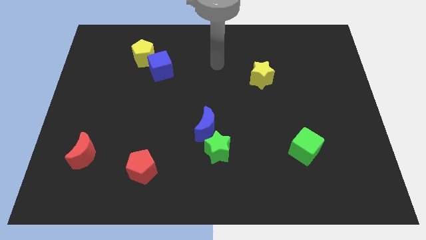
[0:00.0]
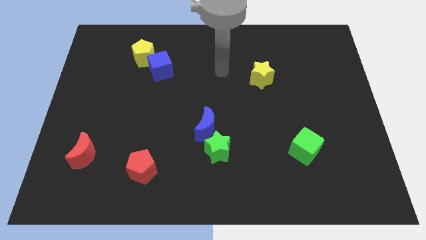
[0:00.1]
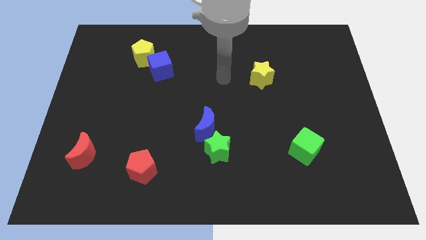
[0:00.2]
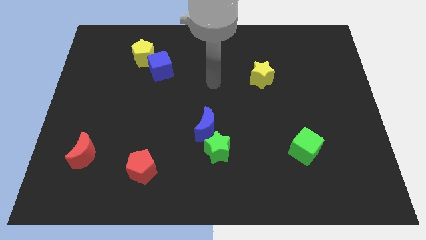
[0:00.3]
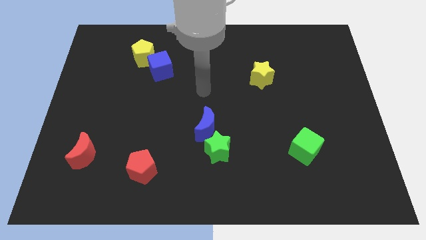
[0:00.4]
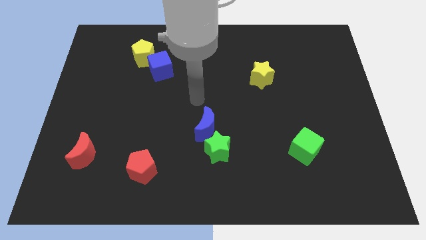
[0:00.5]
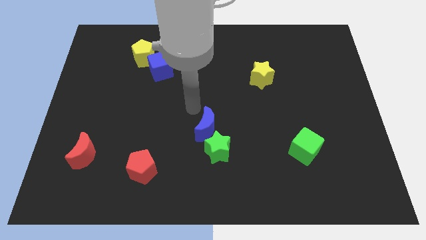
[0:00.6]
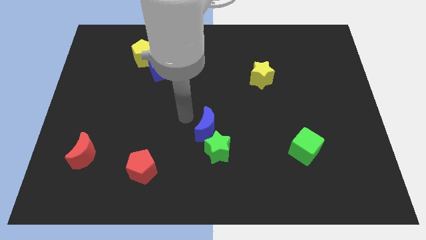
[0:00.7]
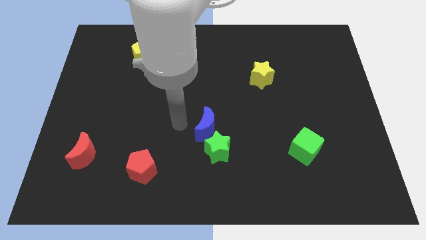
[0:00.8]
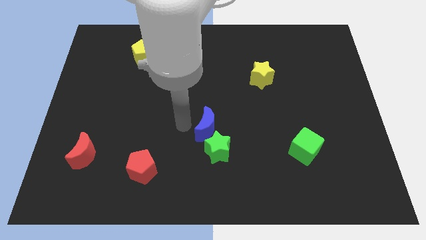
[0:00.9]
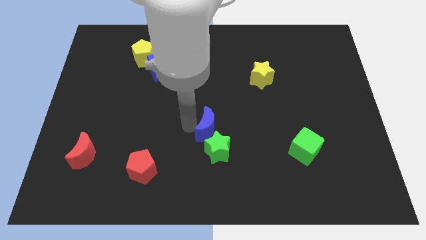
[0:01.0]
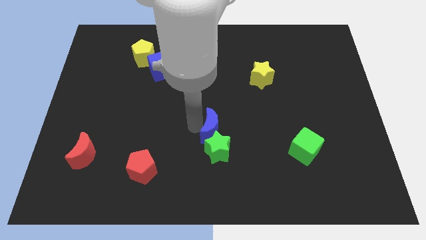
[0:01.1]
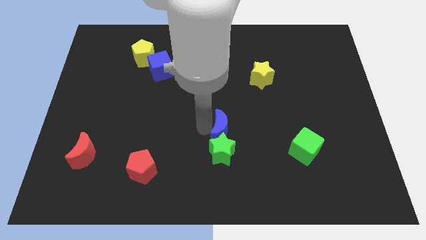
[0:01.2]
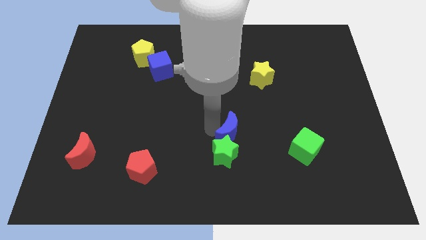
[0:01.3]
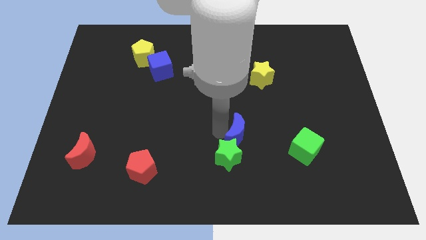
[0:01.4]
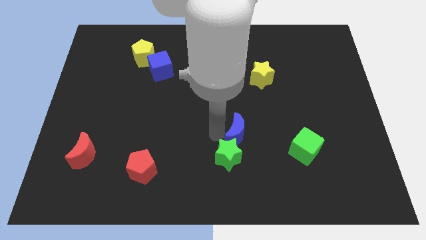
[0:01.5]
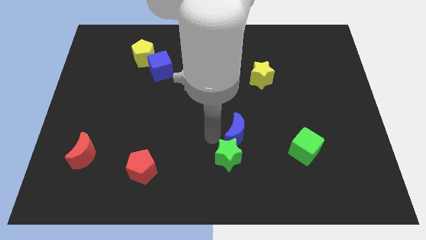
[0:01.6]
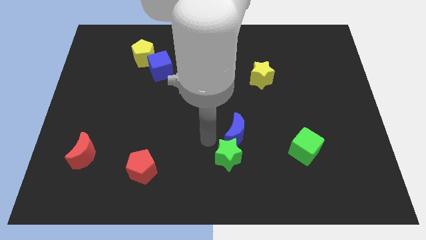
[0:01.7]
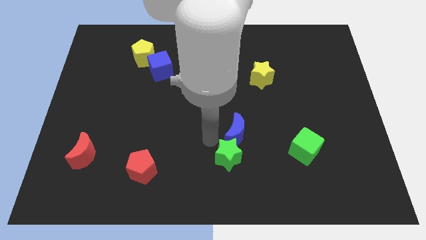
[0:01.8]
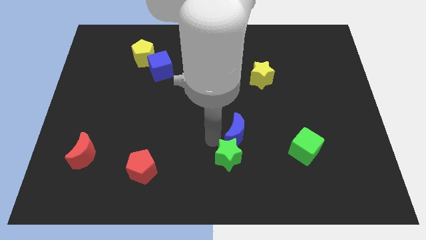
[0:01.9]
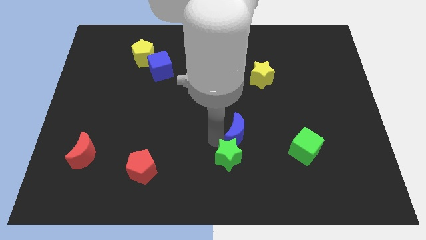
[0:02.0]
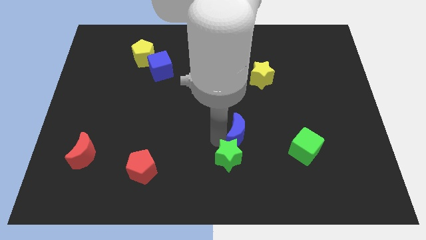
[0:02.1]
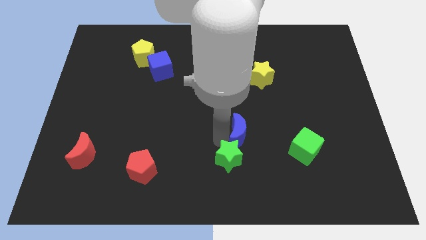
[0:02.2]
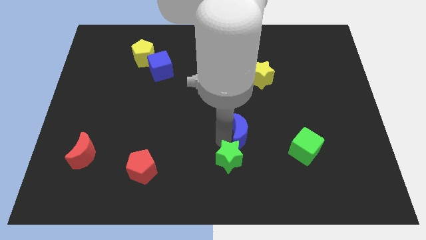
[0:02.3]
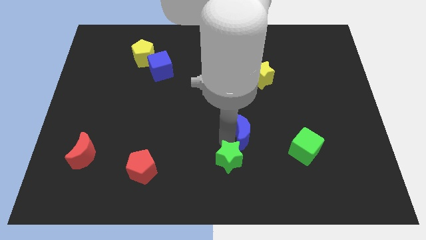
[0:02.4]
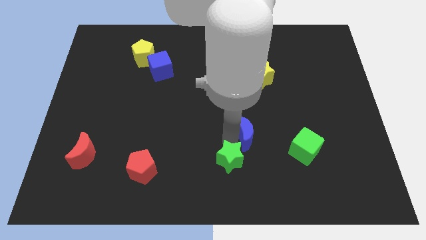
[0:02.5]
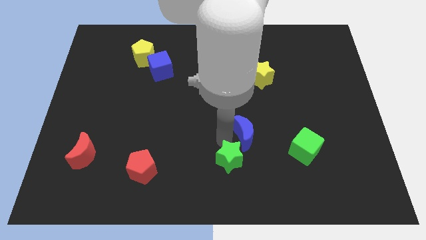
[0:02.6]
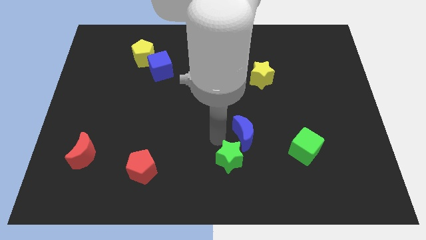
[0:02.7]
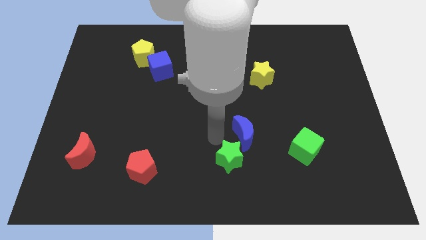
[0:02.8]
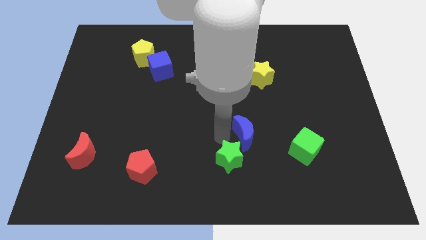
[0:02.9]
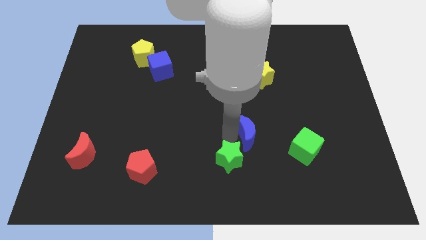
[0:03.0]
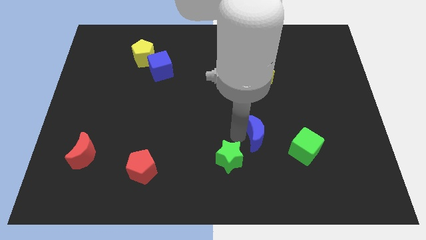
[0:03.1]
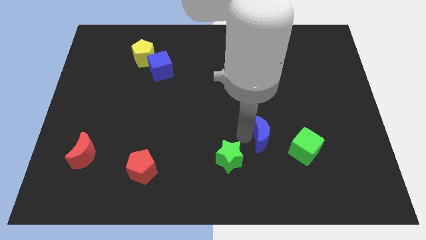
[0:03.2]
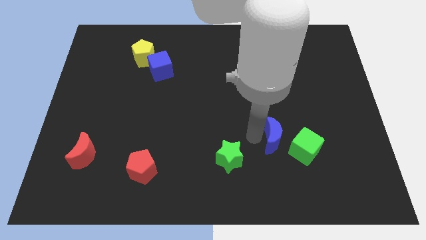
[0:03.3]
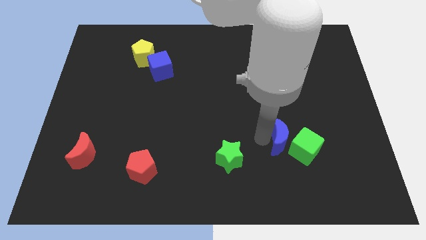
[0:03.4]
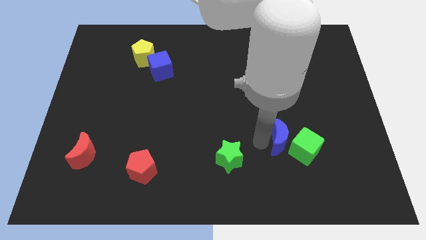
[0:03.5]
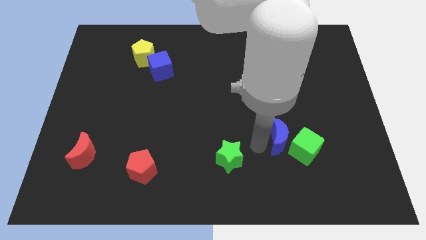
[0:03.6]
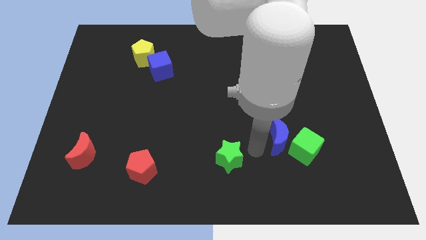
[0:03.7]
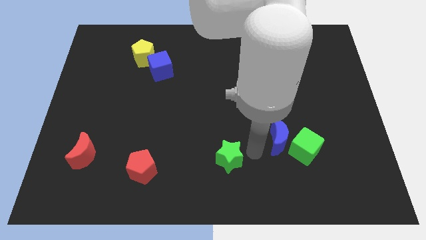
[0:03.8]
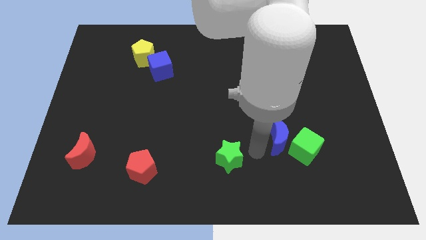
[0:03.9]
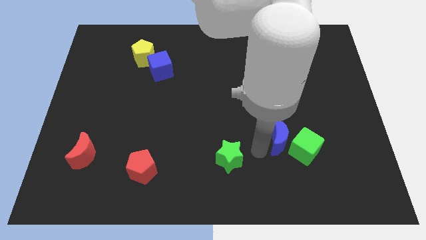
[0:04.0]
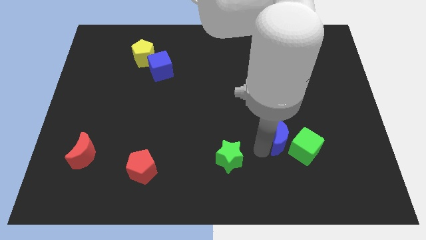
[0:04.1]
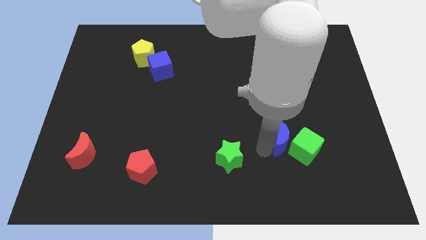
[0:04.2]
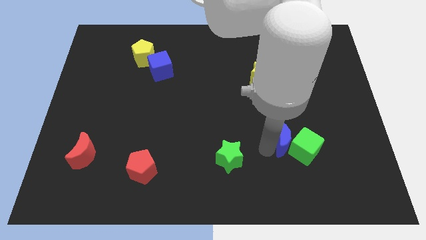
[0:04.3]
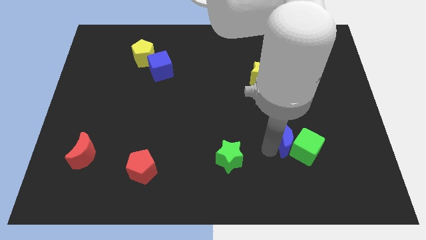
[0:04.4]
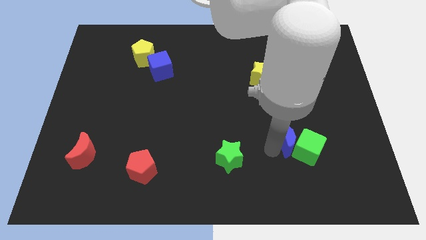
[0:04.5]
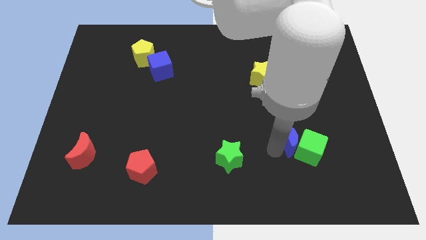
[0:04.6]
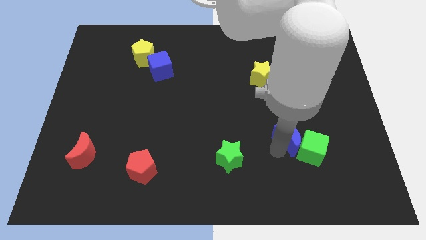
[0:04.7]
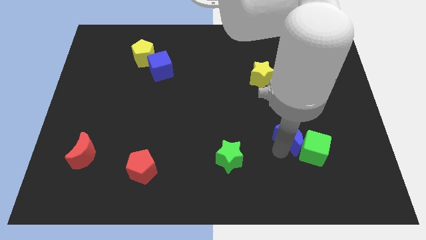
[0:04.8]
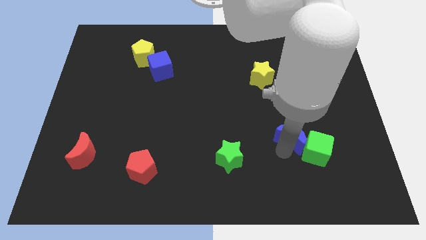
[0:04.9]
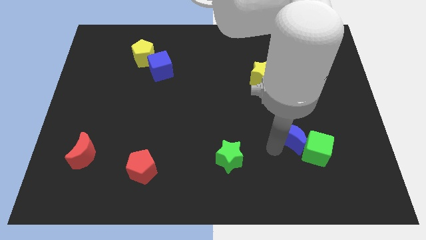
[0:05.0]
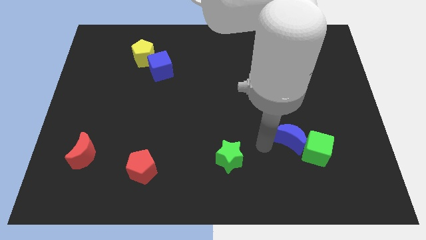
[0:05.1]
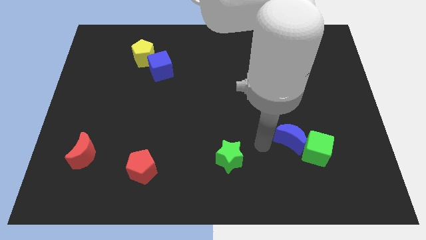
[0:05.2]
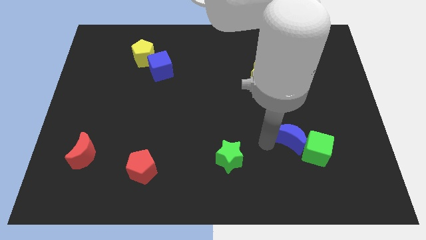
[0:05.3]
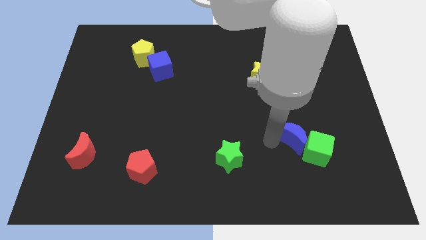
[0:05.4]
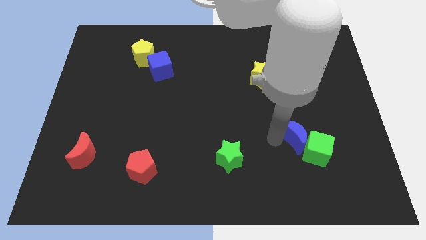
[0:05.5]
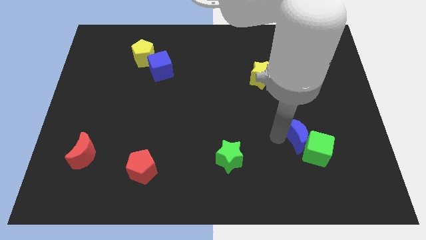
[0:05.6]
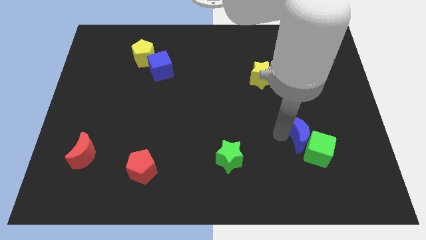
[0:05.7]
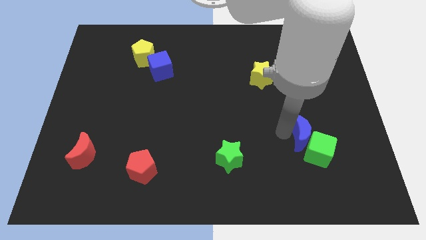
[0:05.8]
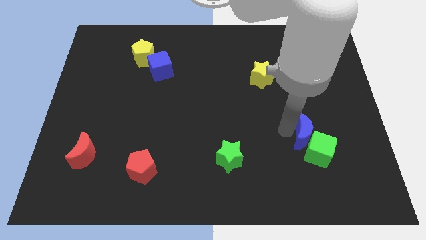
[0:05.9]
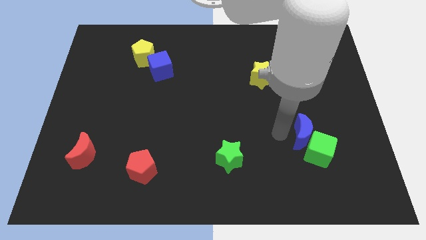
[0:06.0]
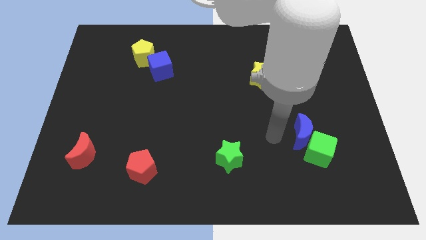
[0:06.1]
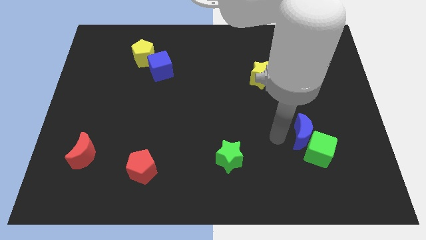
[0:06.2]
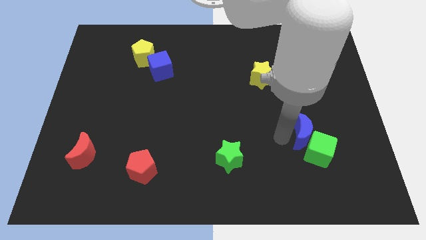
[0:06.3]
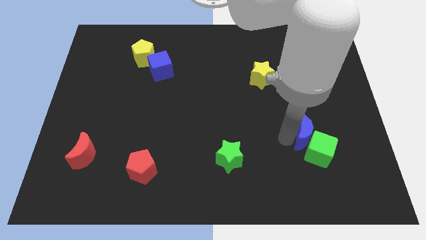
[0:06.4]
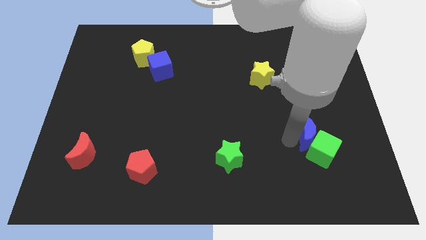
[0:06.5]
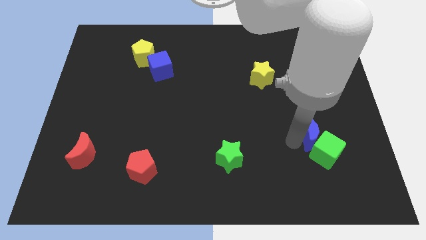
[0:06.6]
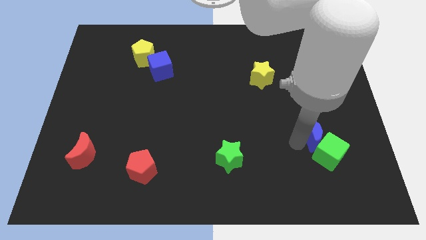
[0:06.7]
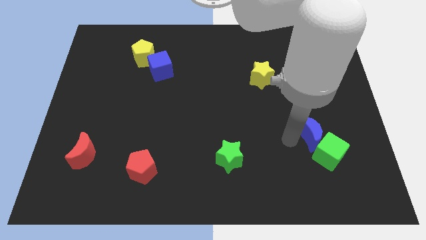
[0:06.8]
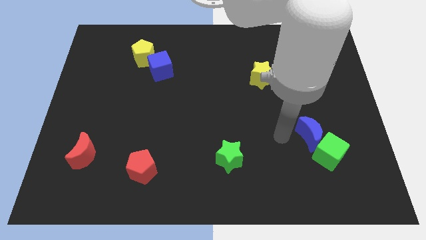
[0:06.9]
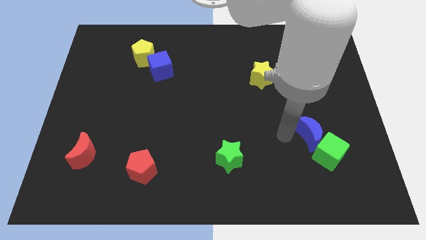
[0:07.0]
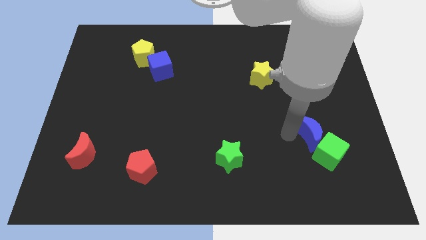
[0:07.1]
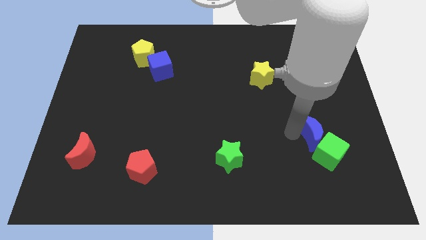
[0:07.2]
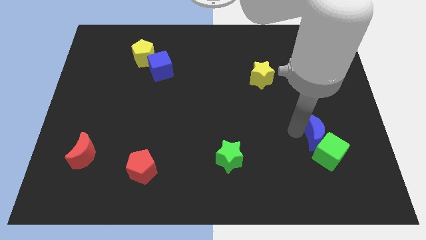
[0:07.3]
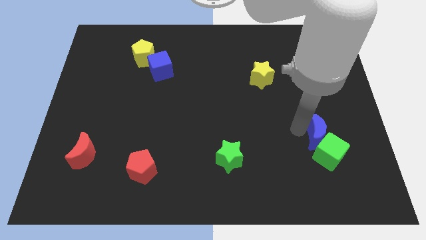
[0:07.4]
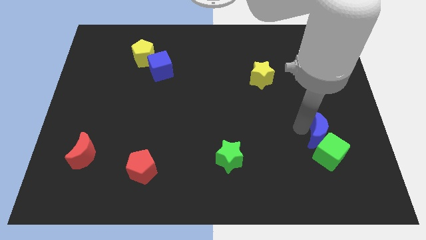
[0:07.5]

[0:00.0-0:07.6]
push the blue moon to the top right side of the green cube

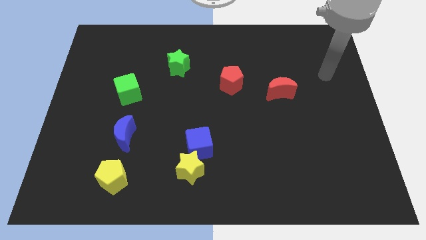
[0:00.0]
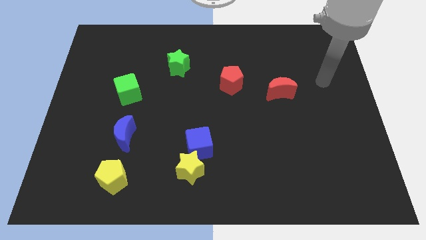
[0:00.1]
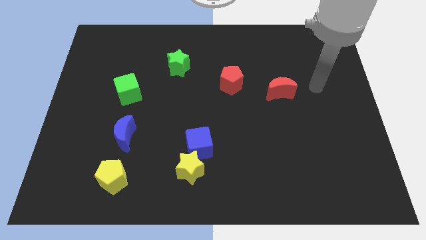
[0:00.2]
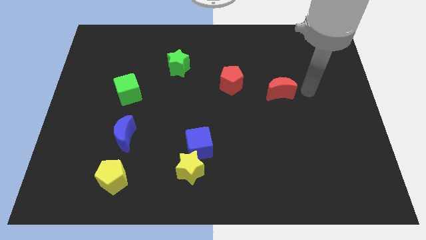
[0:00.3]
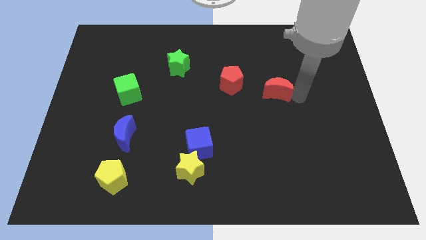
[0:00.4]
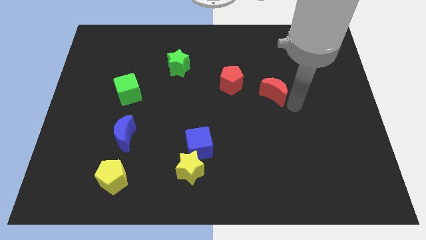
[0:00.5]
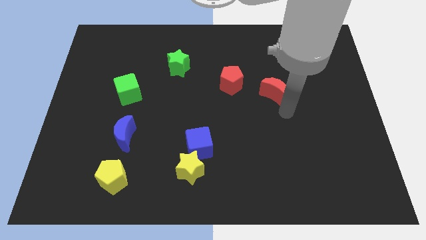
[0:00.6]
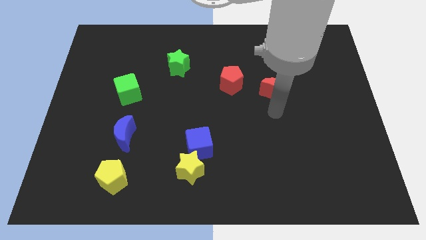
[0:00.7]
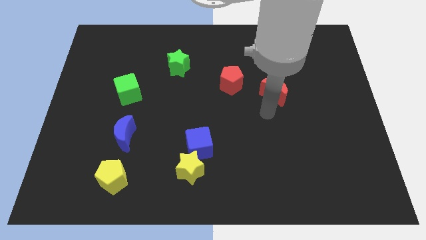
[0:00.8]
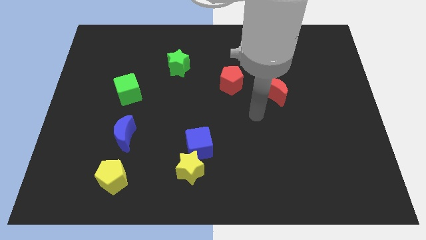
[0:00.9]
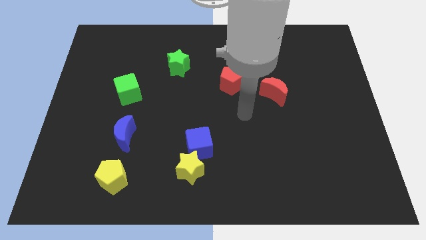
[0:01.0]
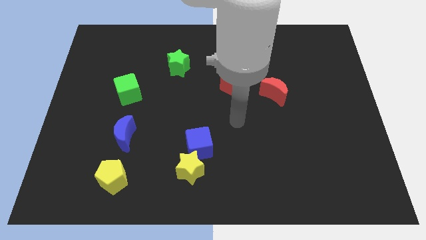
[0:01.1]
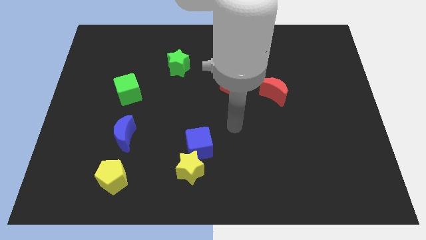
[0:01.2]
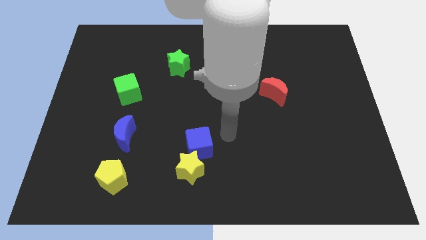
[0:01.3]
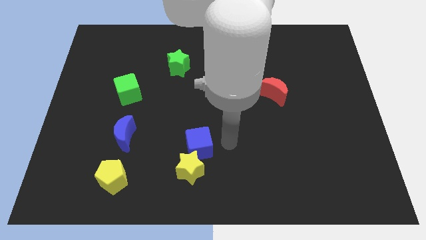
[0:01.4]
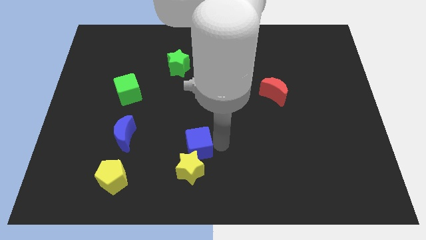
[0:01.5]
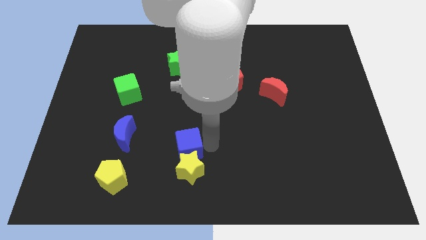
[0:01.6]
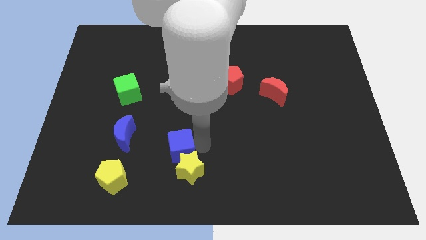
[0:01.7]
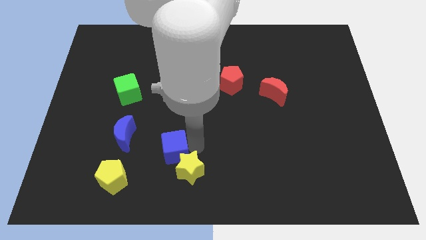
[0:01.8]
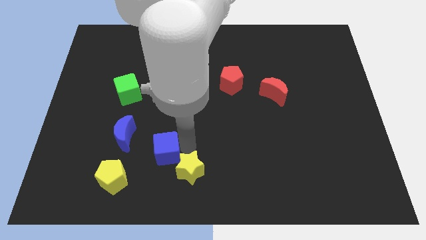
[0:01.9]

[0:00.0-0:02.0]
put the blue cube diagonally down and to the right of the blue moon
